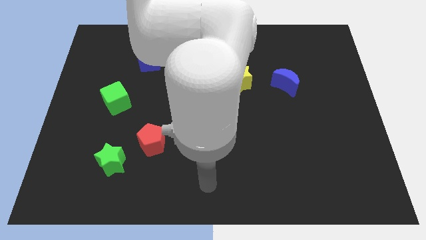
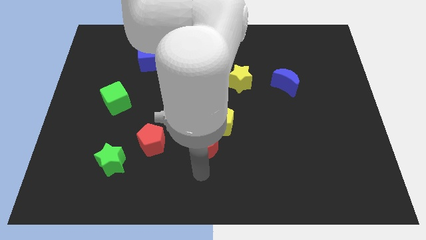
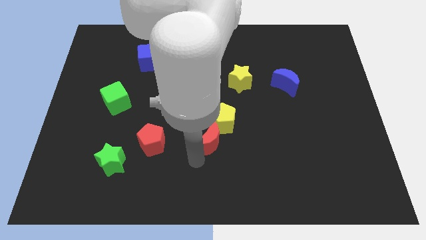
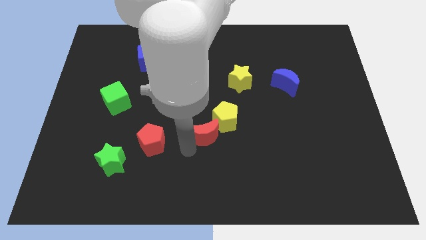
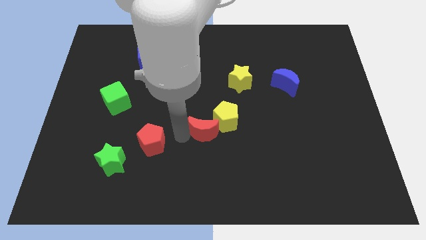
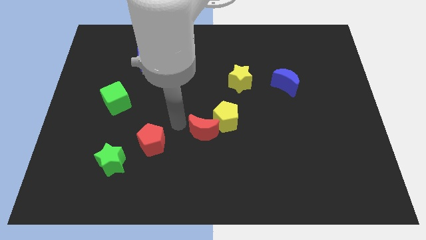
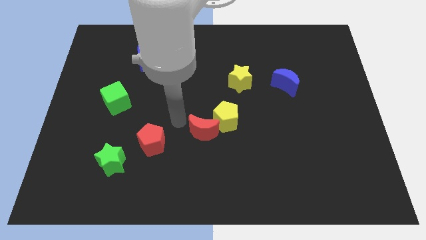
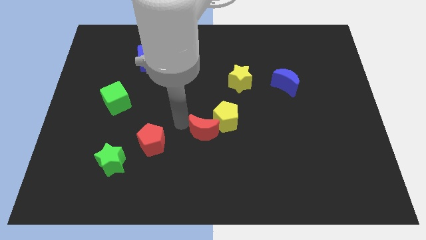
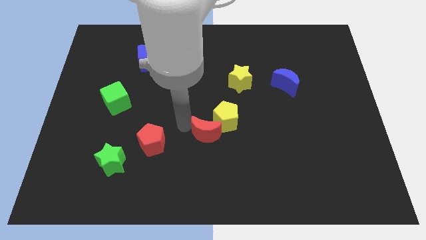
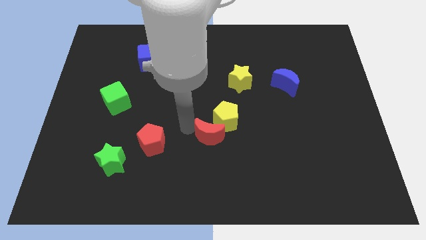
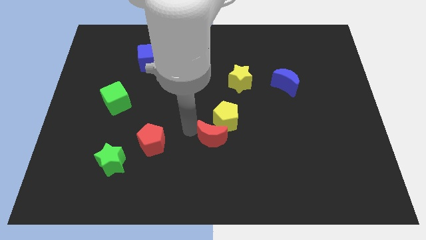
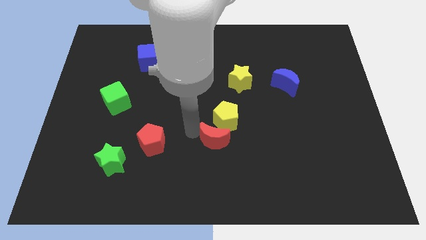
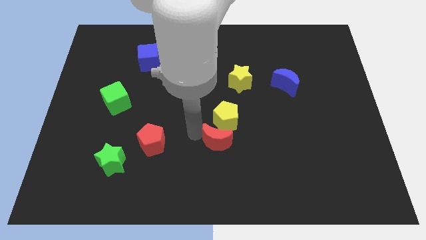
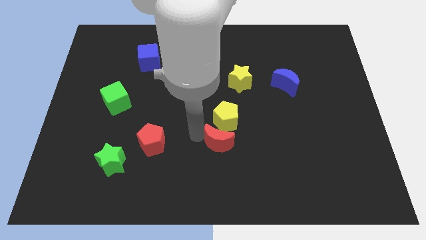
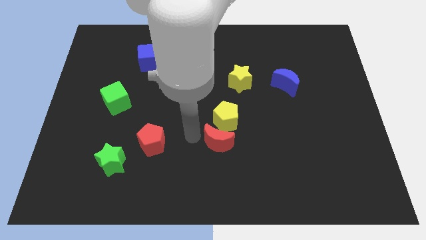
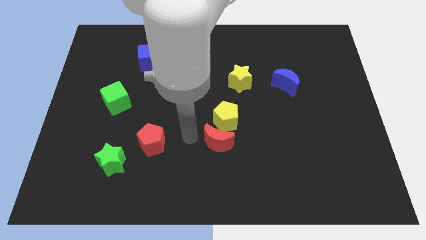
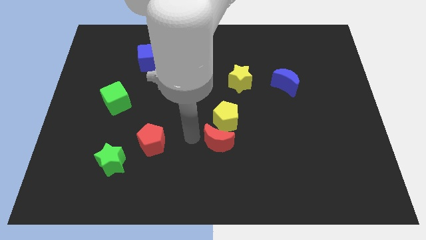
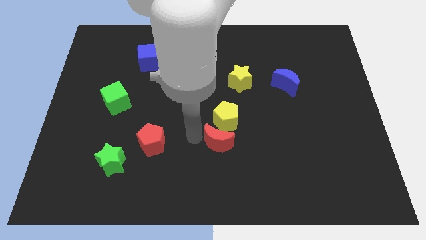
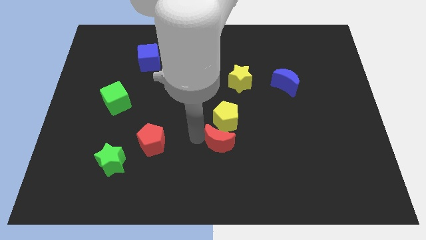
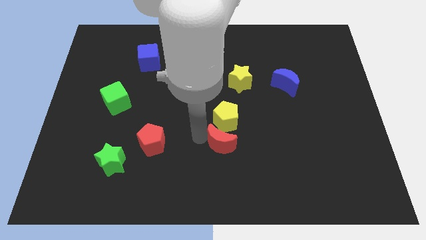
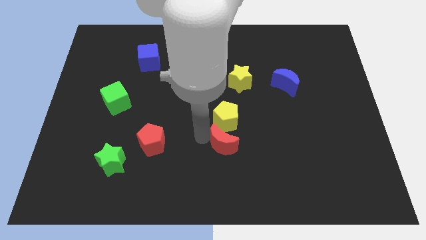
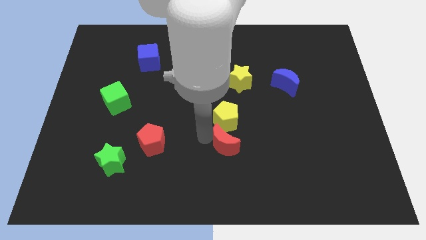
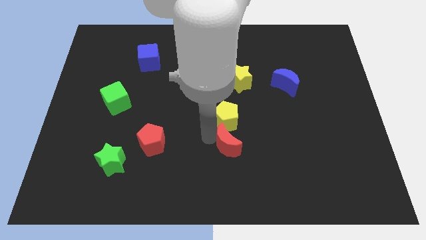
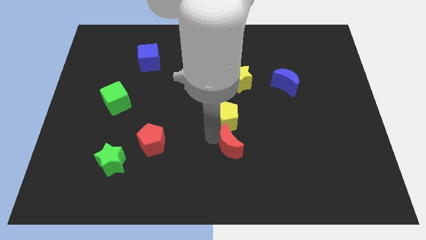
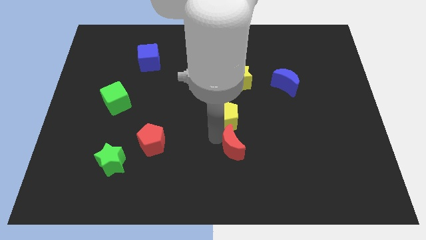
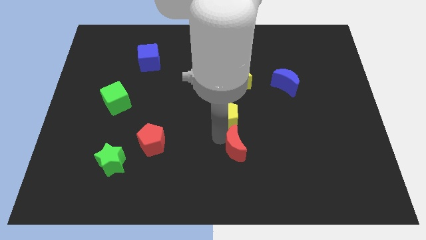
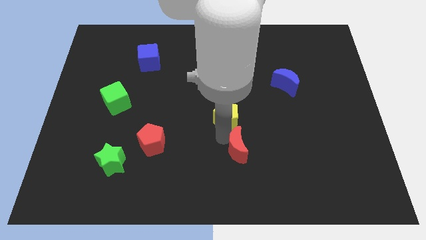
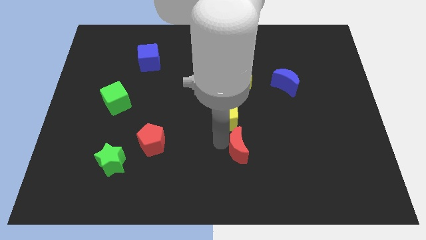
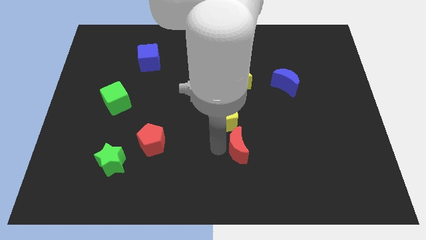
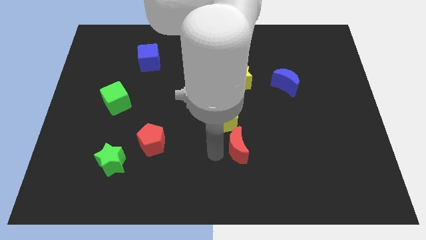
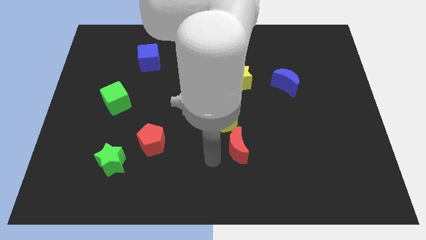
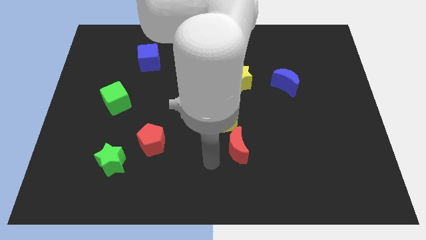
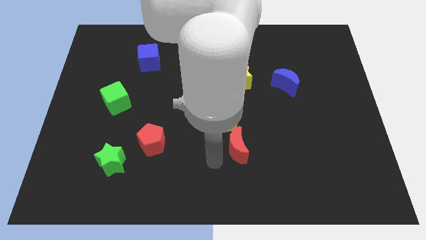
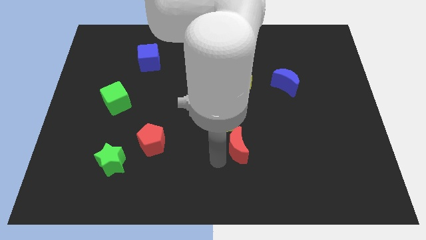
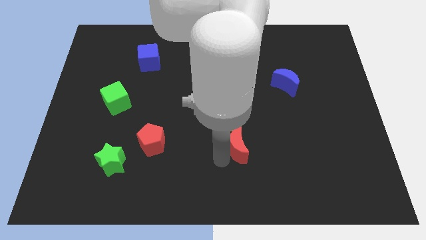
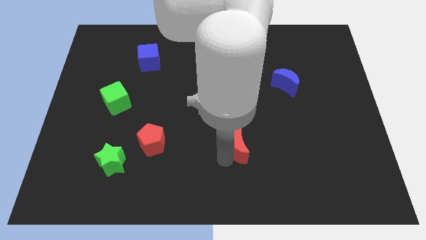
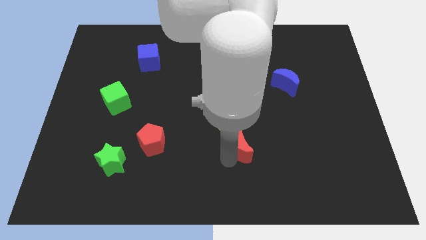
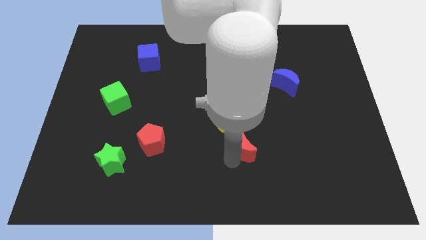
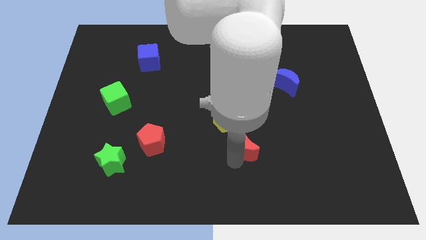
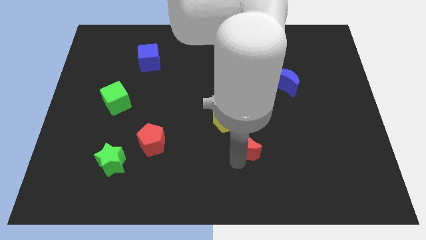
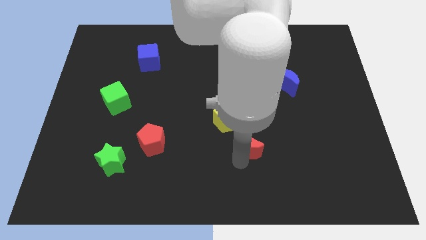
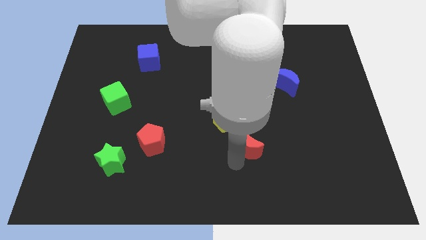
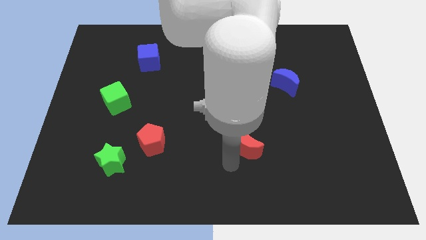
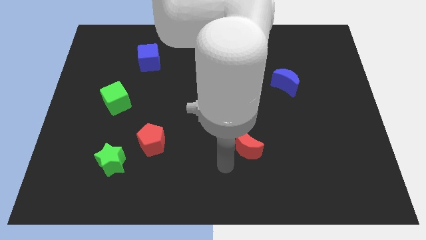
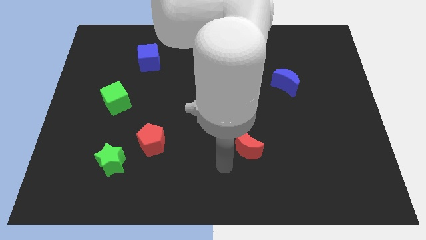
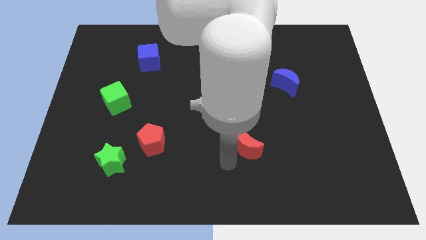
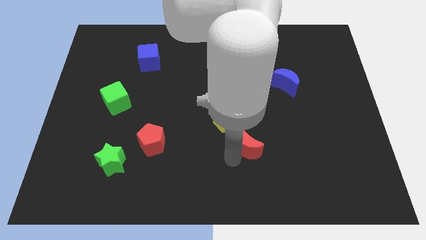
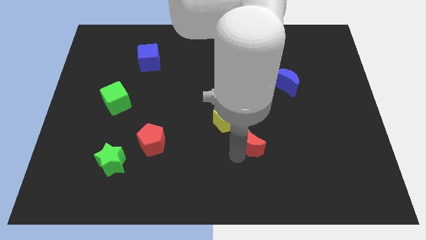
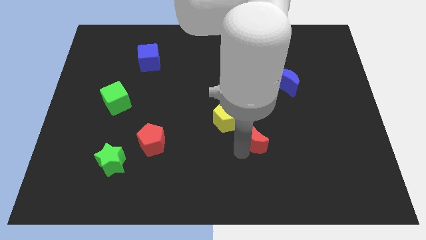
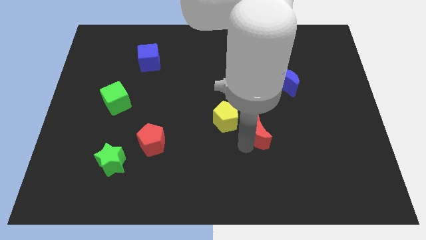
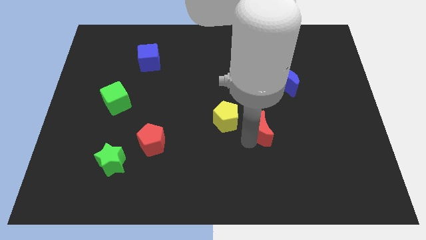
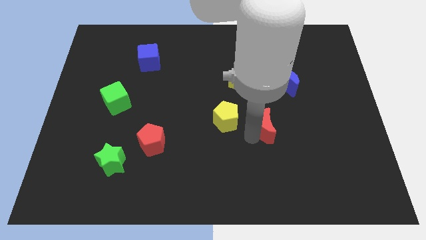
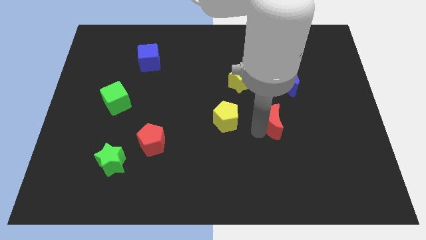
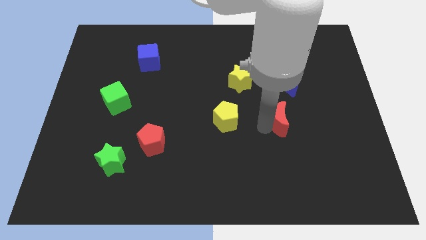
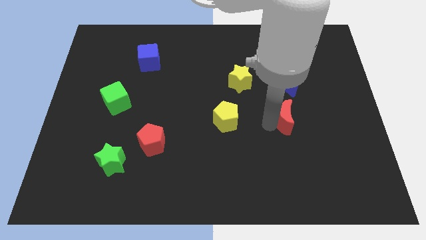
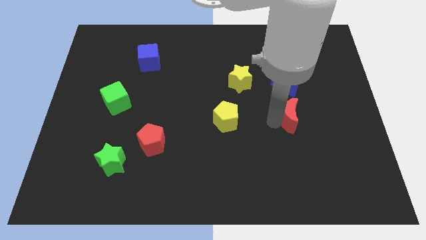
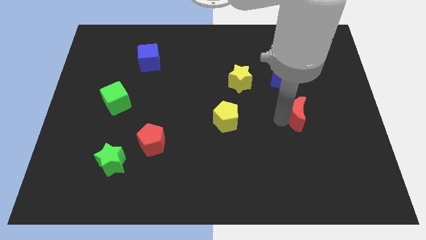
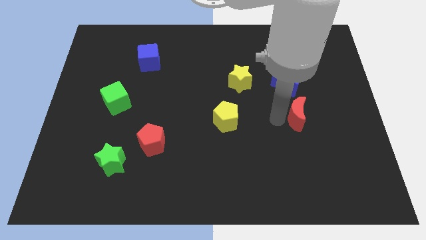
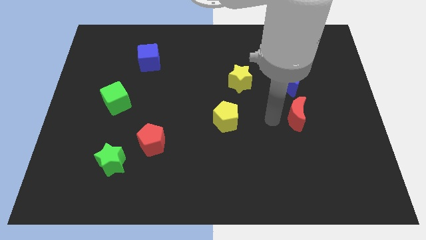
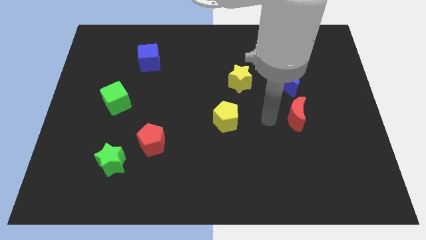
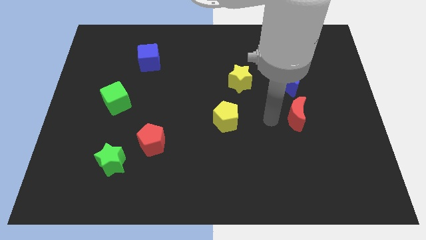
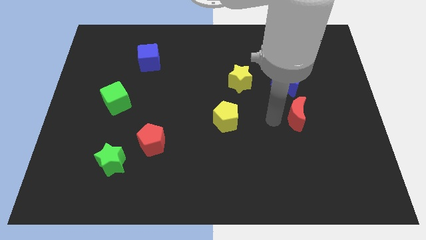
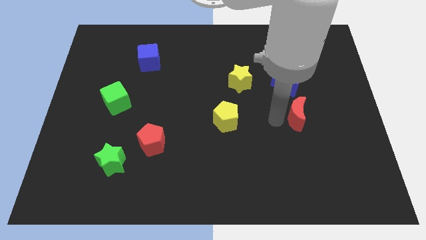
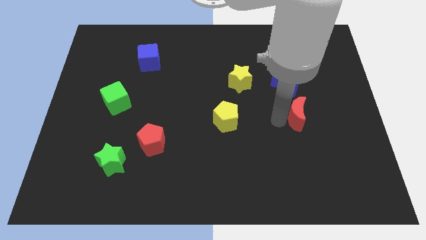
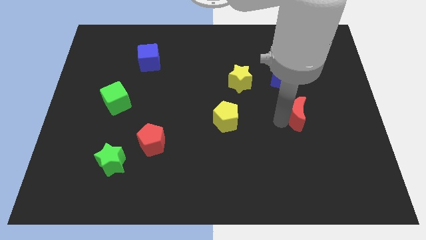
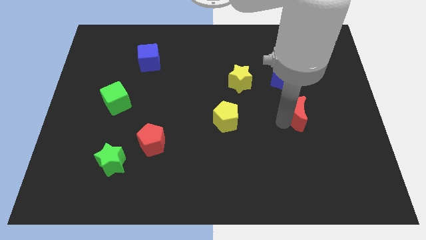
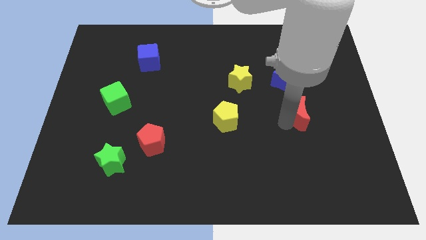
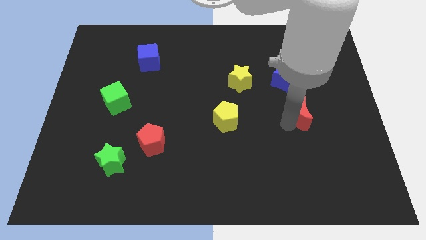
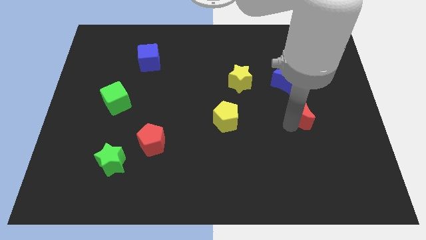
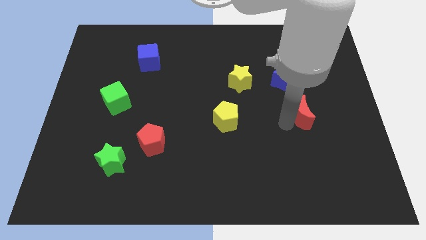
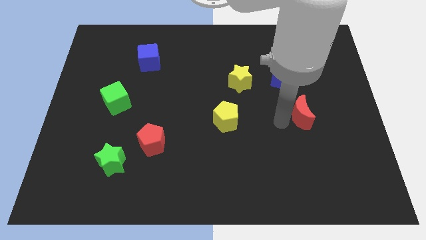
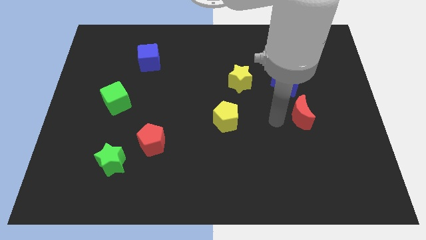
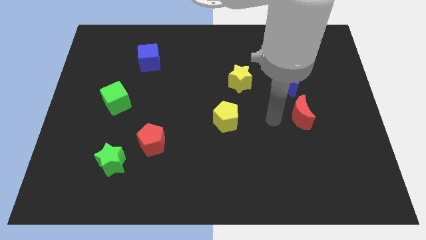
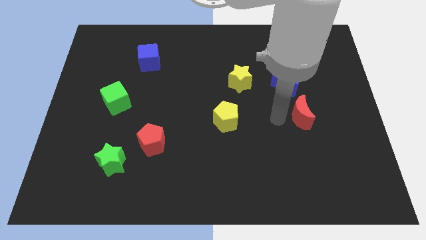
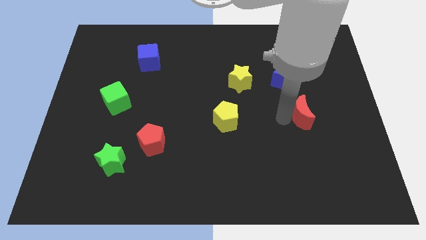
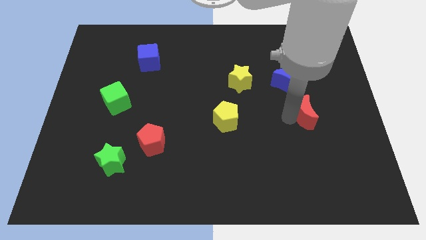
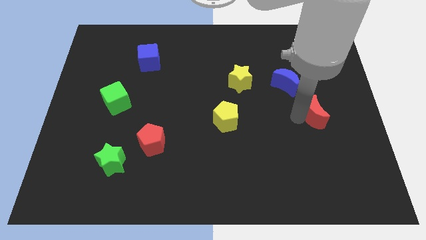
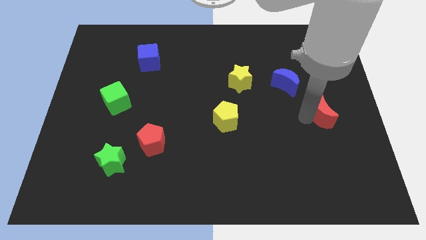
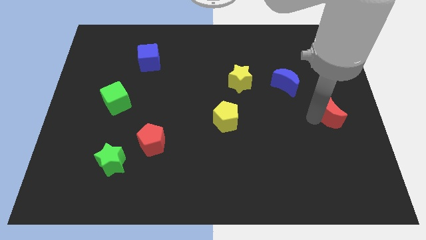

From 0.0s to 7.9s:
slide the red moon to the right side
